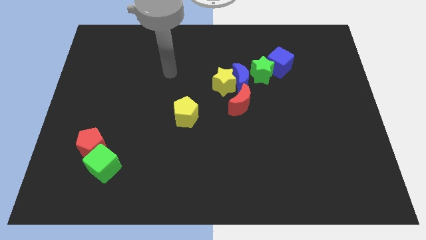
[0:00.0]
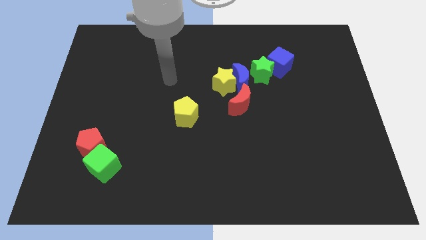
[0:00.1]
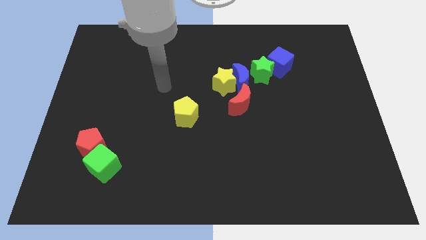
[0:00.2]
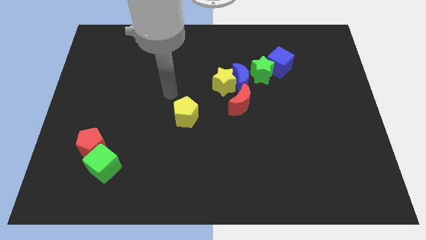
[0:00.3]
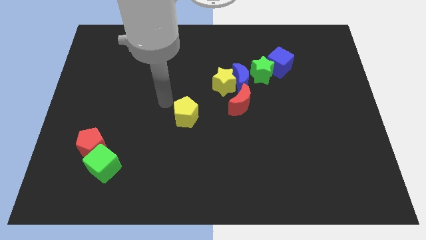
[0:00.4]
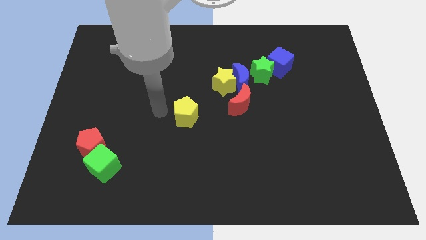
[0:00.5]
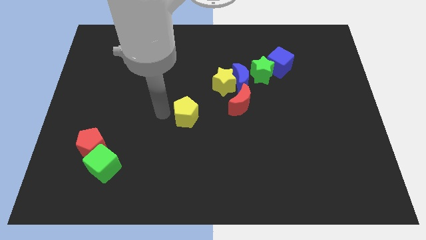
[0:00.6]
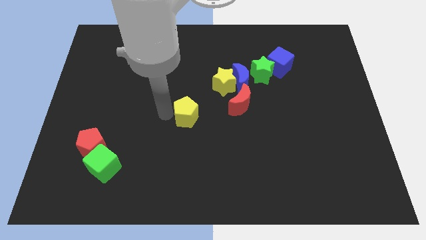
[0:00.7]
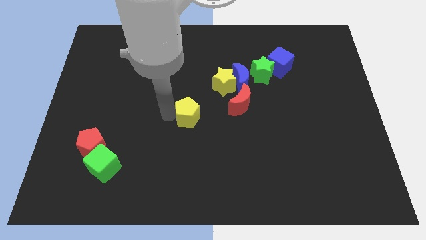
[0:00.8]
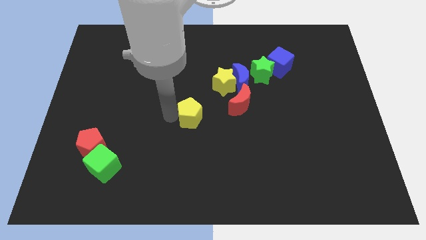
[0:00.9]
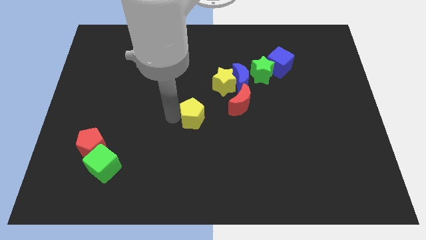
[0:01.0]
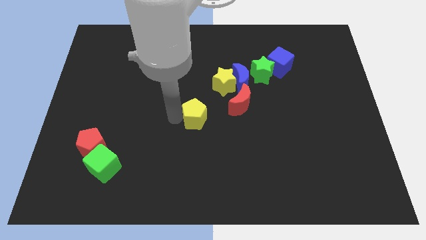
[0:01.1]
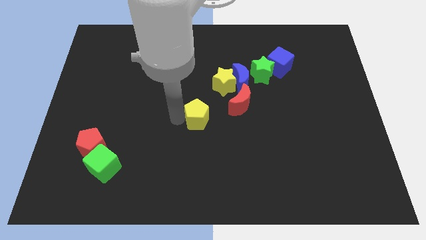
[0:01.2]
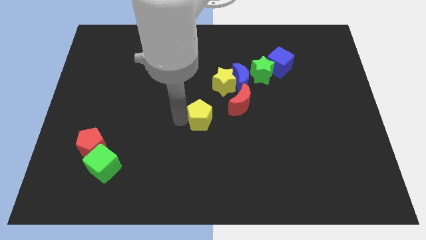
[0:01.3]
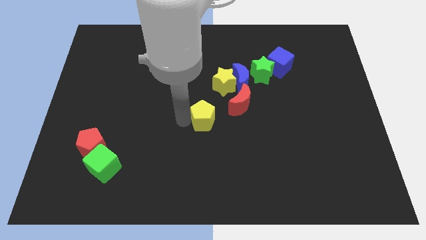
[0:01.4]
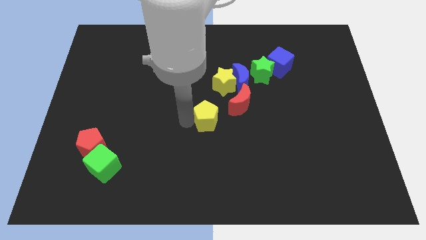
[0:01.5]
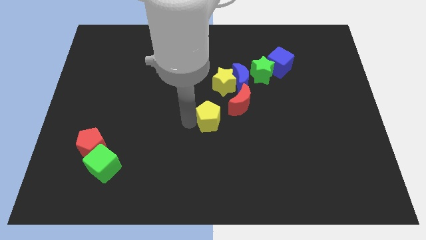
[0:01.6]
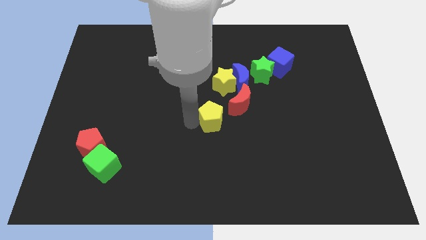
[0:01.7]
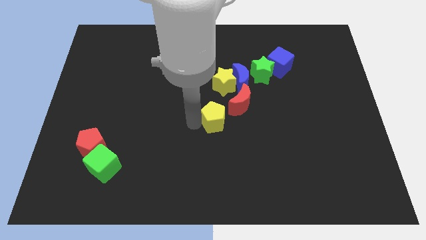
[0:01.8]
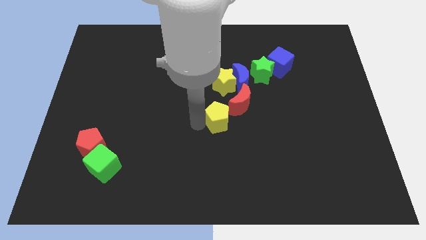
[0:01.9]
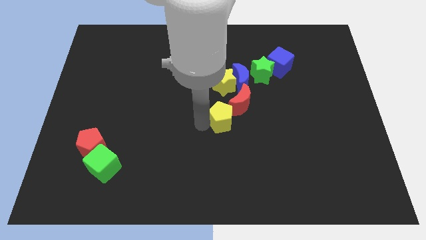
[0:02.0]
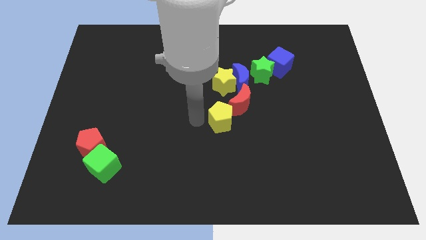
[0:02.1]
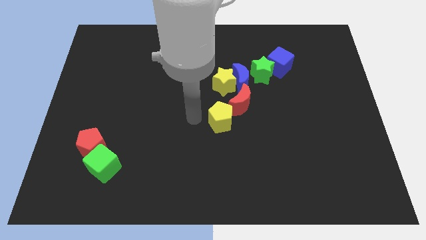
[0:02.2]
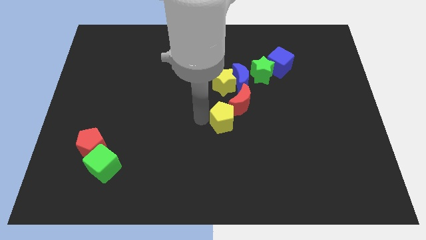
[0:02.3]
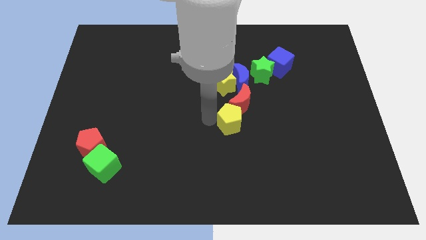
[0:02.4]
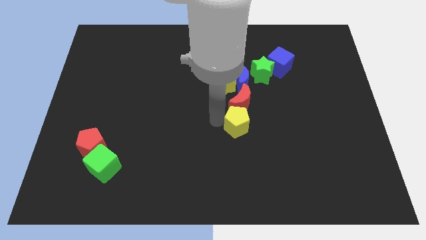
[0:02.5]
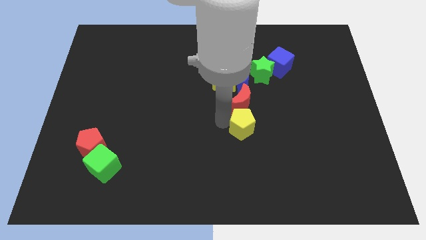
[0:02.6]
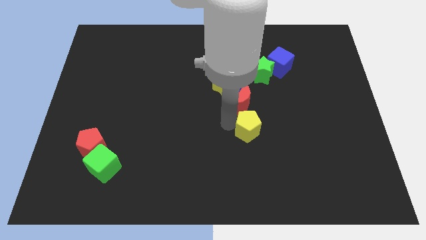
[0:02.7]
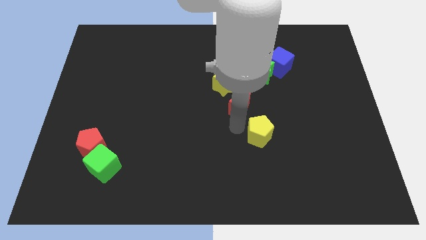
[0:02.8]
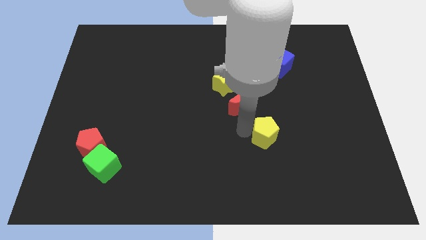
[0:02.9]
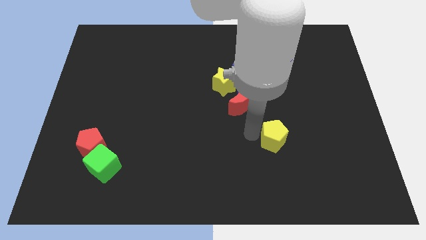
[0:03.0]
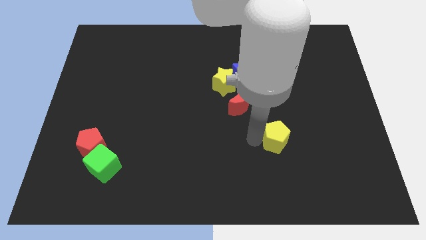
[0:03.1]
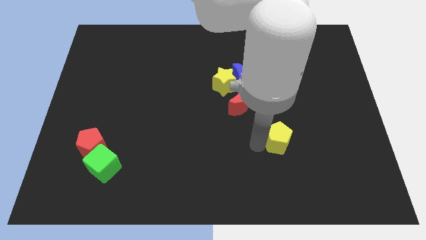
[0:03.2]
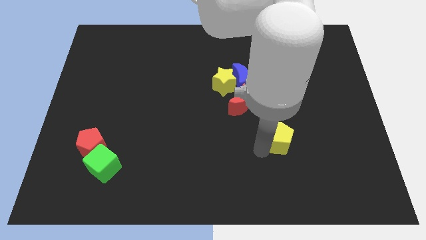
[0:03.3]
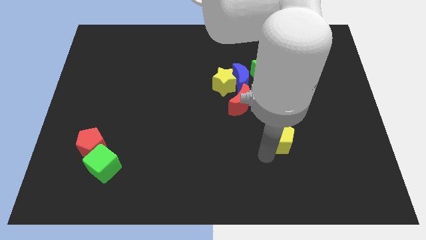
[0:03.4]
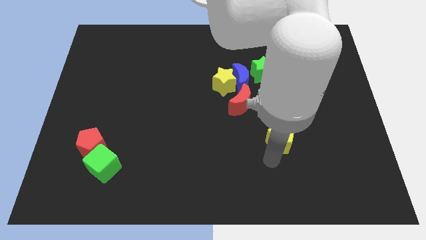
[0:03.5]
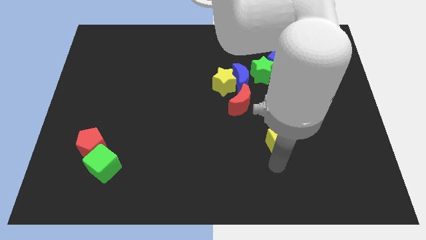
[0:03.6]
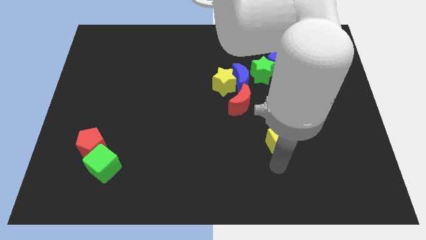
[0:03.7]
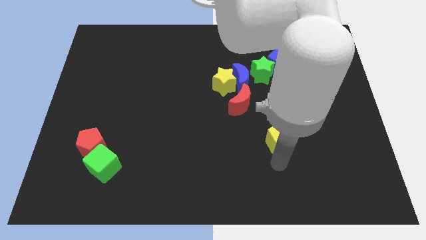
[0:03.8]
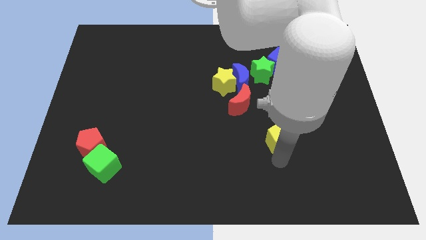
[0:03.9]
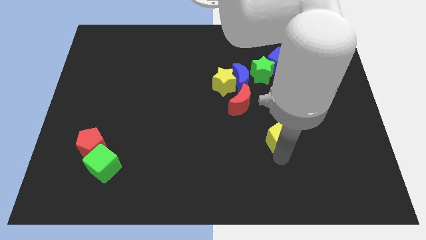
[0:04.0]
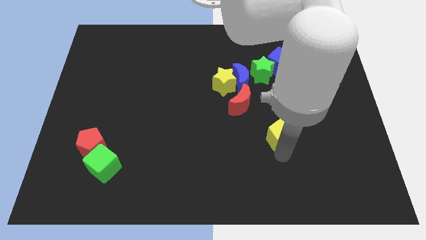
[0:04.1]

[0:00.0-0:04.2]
move the yellow pentagon right

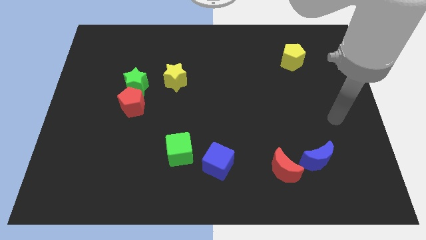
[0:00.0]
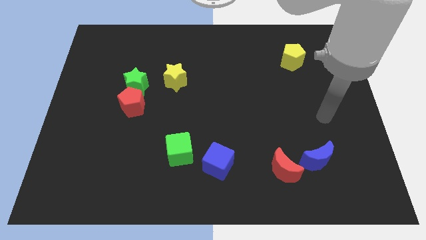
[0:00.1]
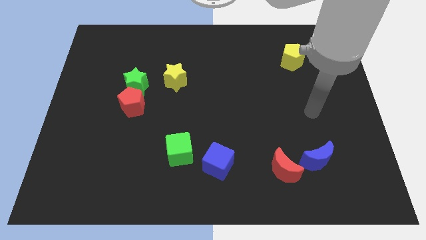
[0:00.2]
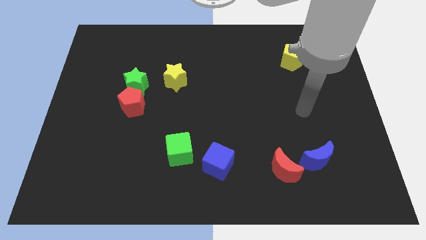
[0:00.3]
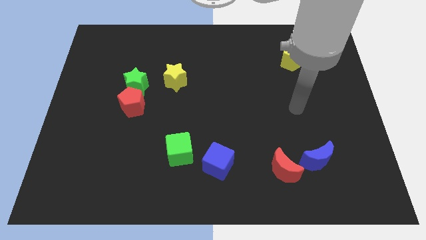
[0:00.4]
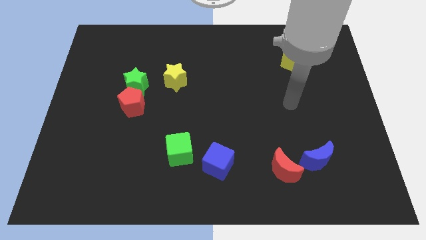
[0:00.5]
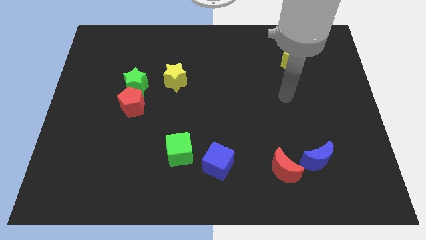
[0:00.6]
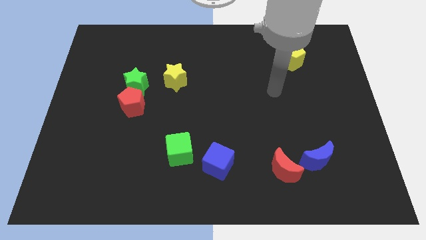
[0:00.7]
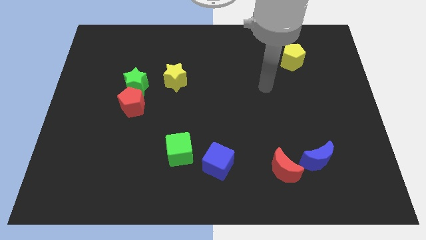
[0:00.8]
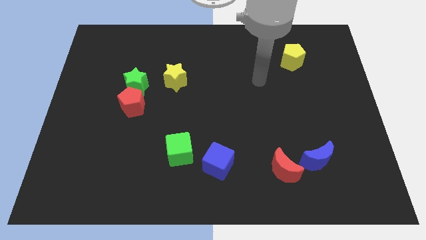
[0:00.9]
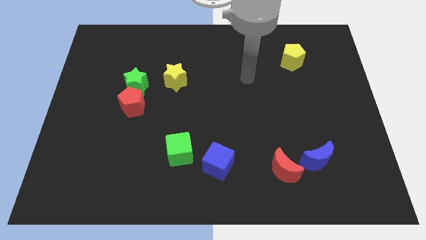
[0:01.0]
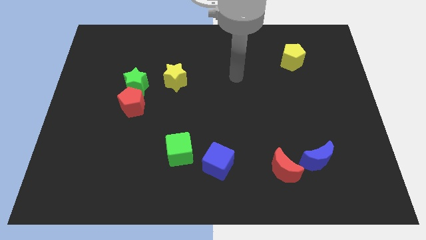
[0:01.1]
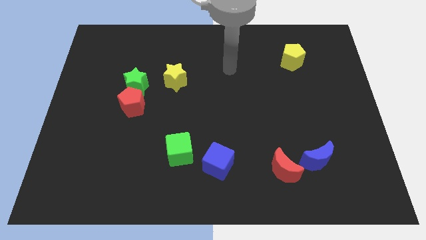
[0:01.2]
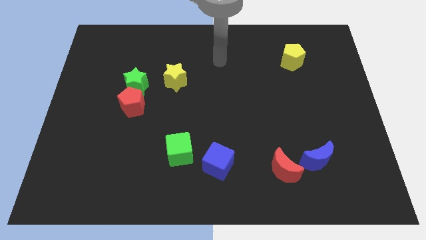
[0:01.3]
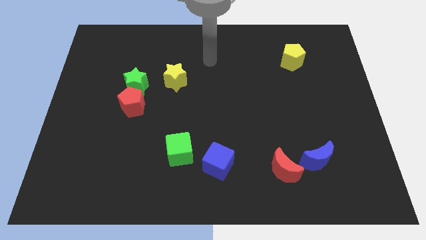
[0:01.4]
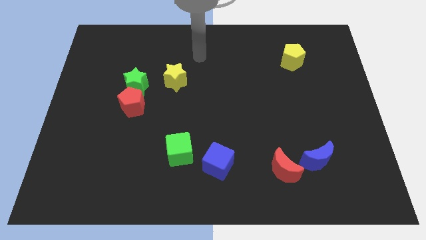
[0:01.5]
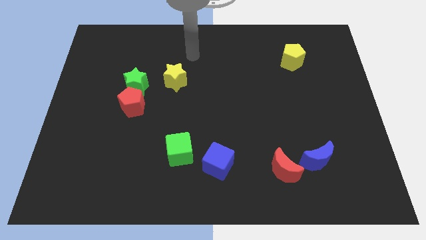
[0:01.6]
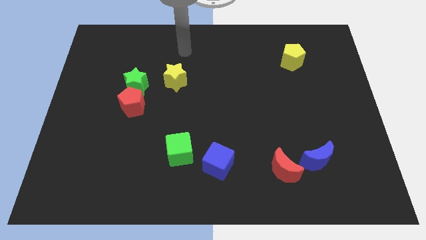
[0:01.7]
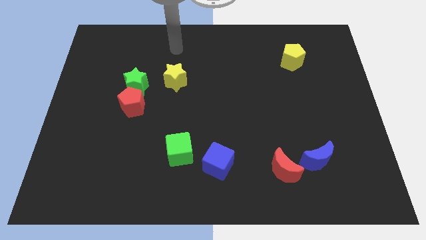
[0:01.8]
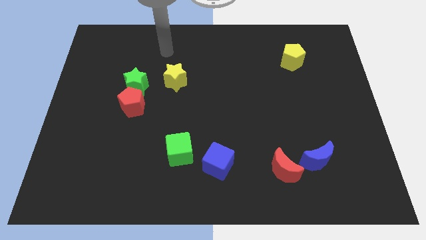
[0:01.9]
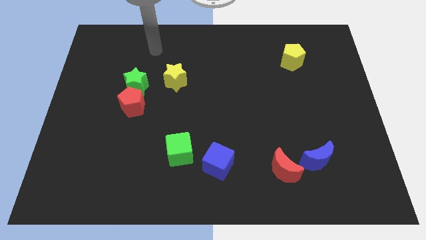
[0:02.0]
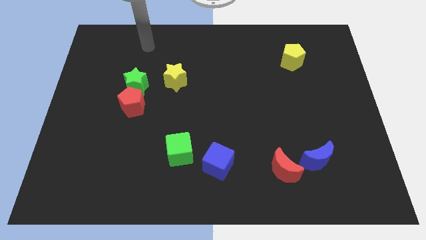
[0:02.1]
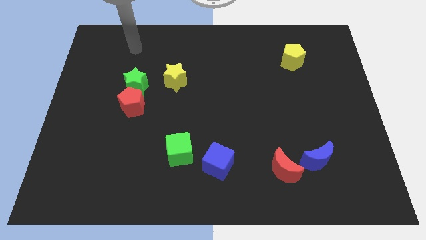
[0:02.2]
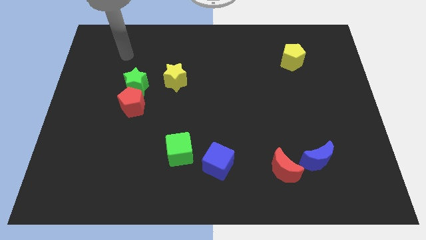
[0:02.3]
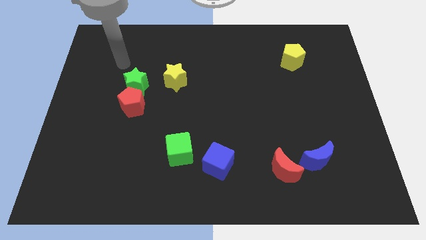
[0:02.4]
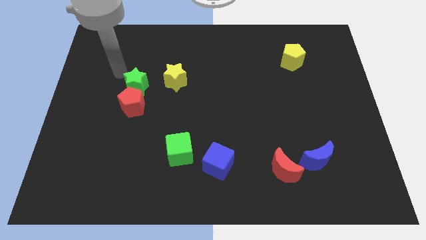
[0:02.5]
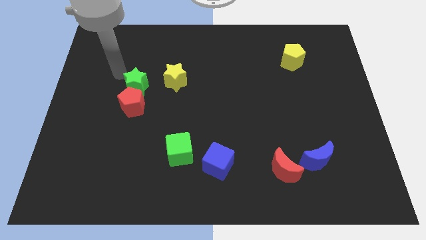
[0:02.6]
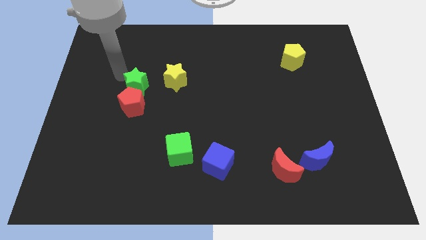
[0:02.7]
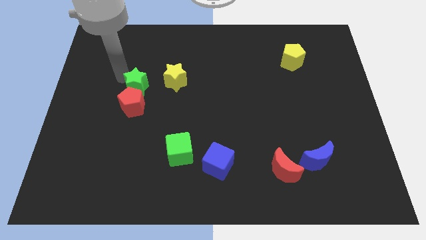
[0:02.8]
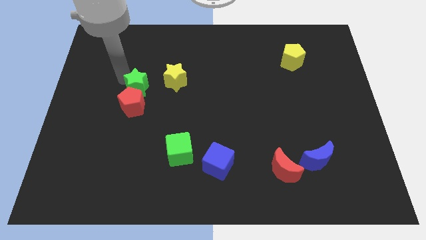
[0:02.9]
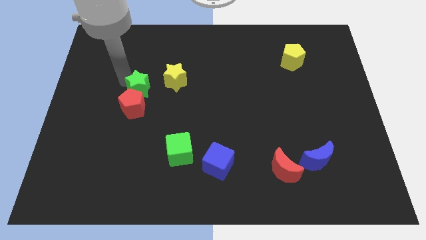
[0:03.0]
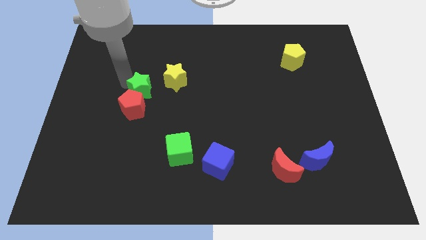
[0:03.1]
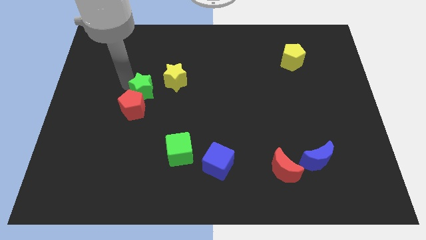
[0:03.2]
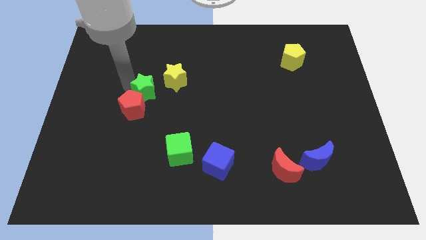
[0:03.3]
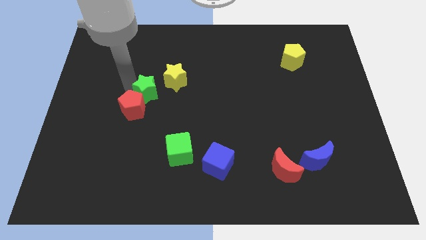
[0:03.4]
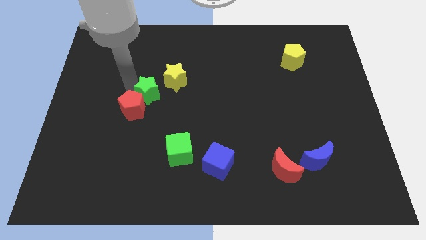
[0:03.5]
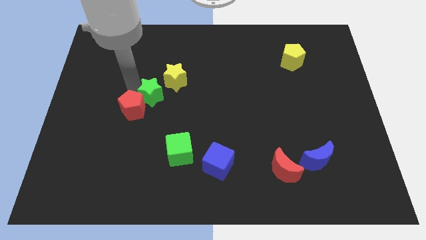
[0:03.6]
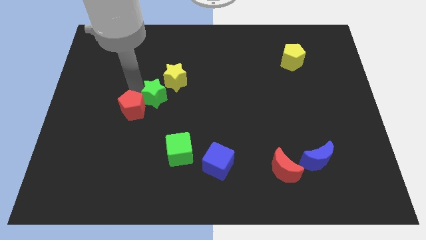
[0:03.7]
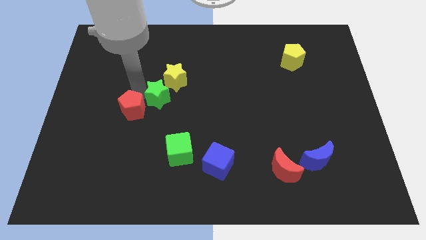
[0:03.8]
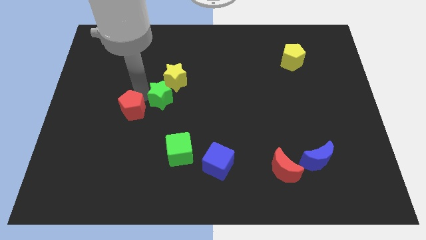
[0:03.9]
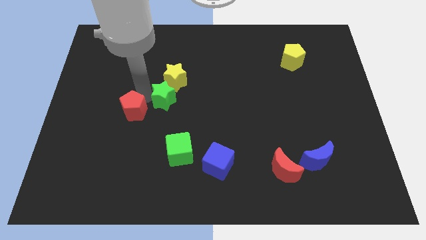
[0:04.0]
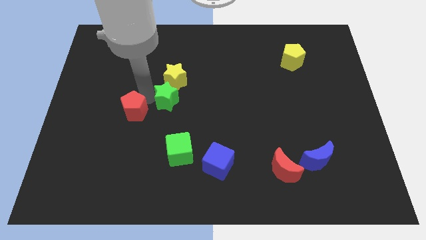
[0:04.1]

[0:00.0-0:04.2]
push the green star to the right a little bit
